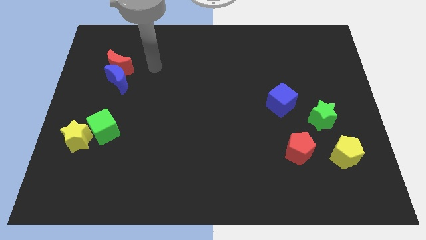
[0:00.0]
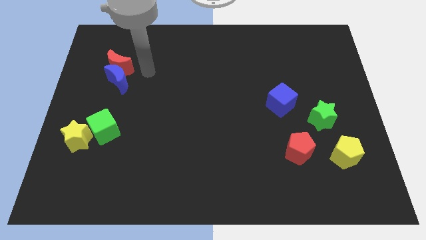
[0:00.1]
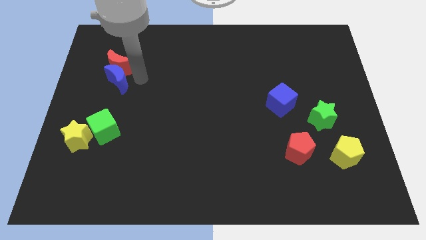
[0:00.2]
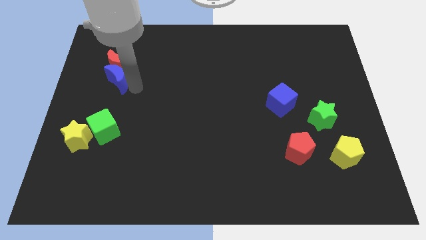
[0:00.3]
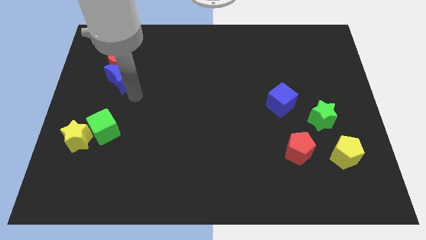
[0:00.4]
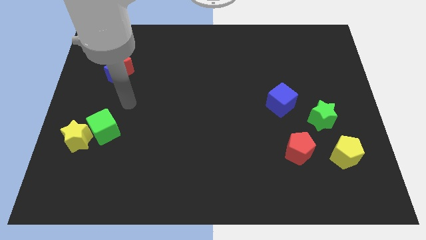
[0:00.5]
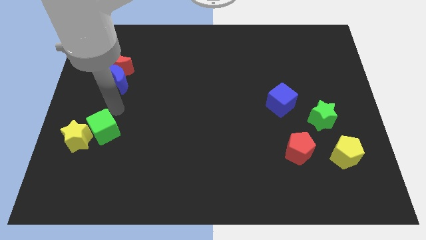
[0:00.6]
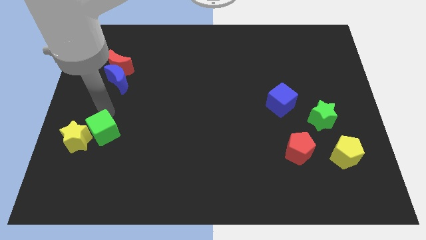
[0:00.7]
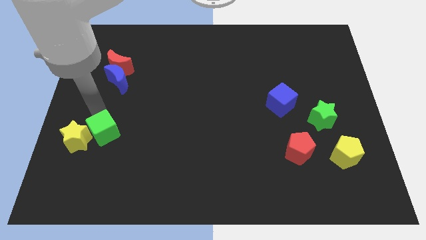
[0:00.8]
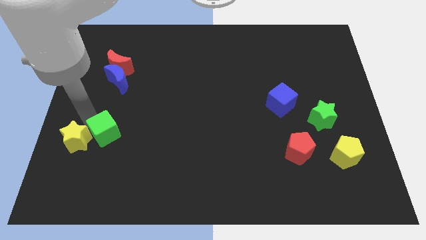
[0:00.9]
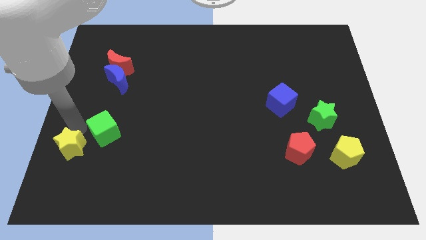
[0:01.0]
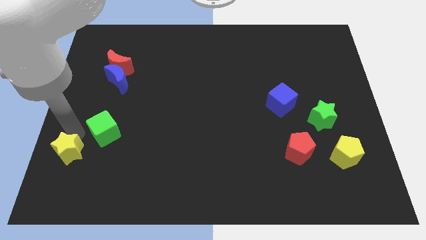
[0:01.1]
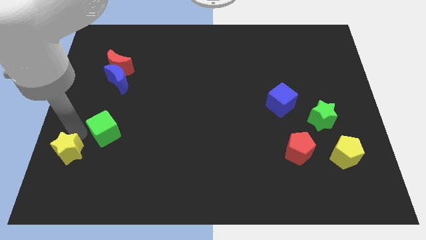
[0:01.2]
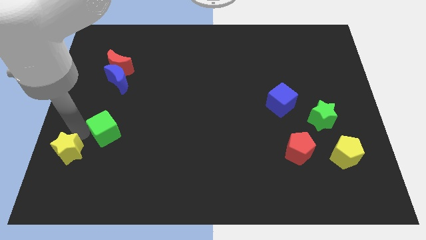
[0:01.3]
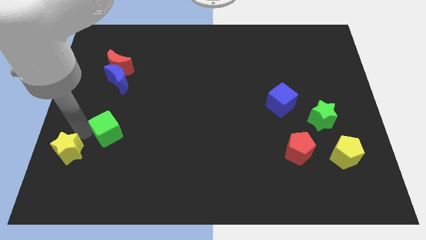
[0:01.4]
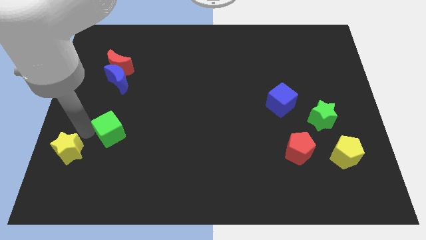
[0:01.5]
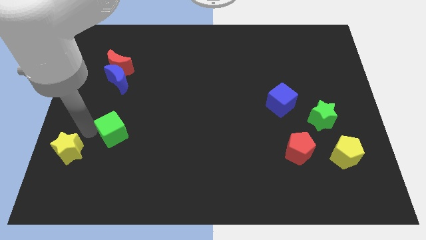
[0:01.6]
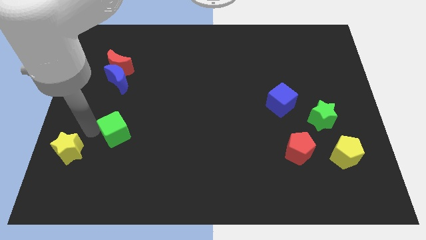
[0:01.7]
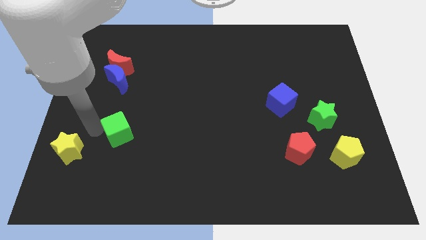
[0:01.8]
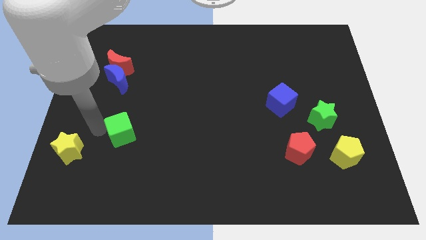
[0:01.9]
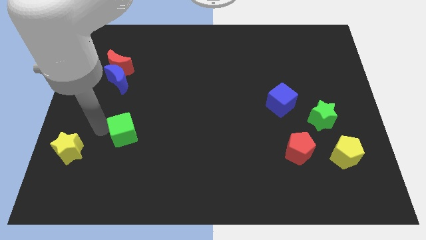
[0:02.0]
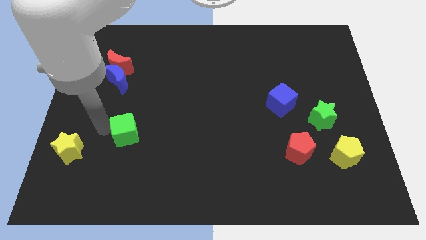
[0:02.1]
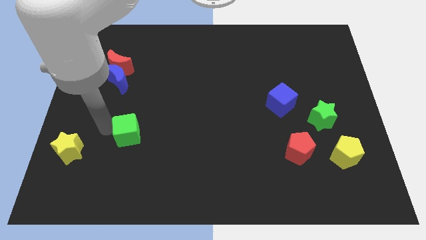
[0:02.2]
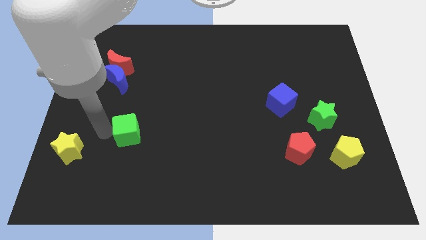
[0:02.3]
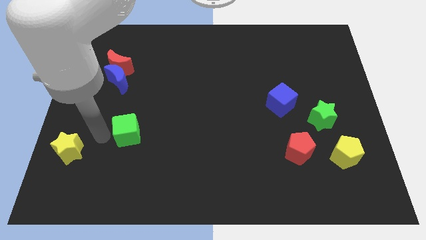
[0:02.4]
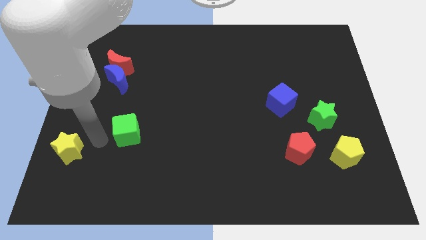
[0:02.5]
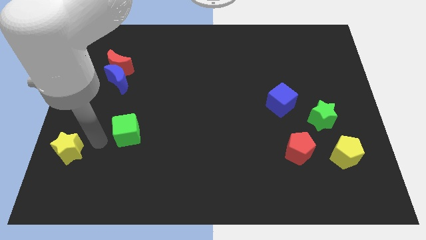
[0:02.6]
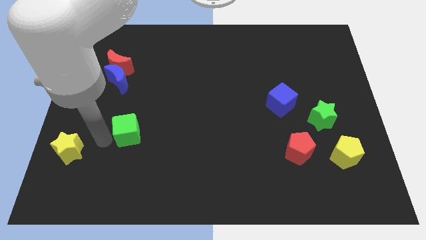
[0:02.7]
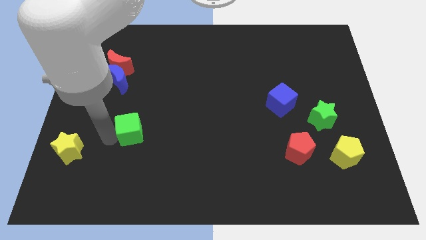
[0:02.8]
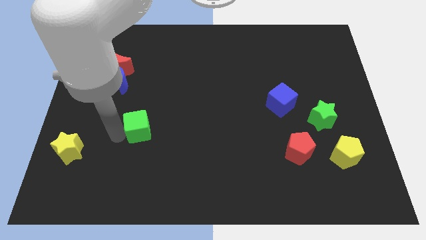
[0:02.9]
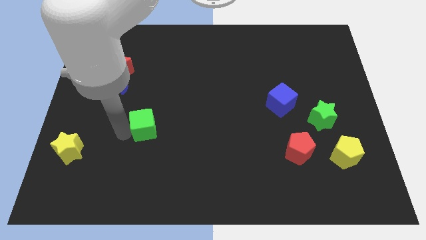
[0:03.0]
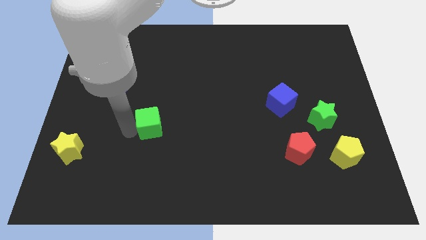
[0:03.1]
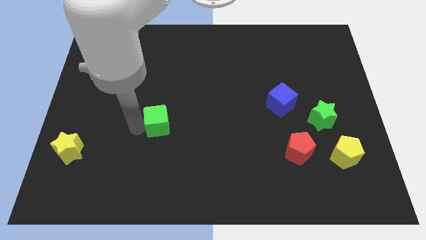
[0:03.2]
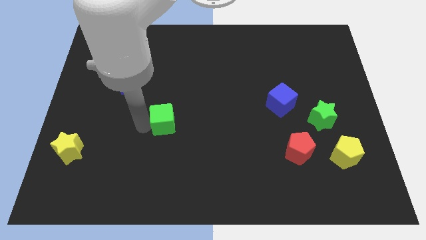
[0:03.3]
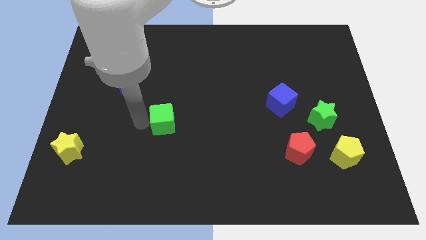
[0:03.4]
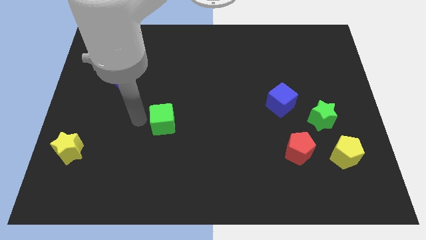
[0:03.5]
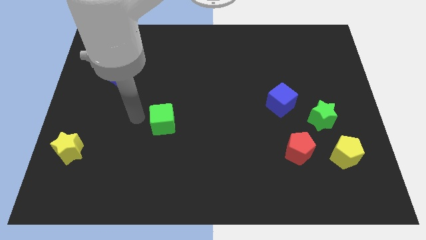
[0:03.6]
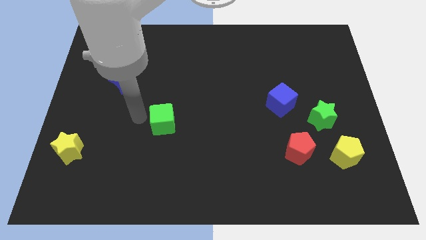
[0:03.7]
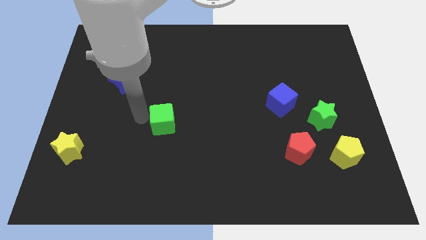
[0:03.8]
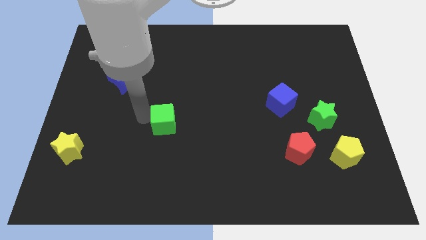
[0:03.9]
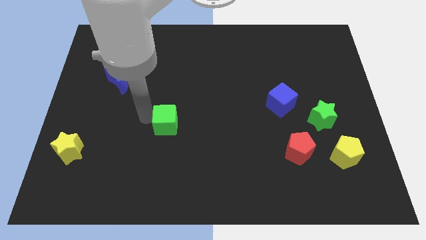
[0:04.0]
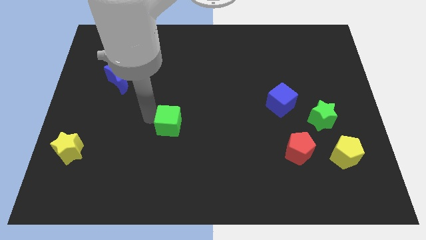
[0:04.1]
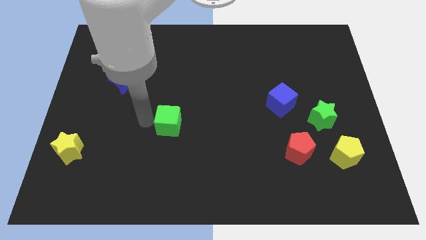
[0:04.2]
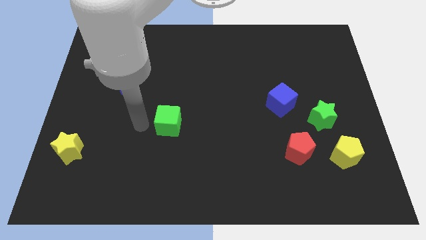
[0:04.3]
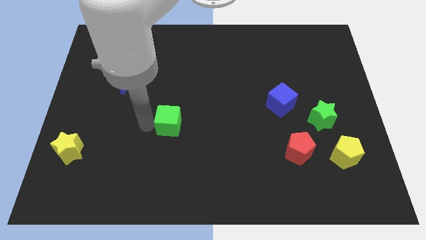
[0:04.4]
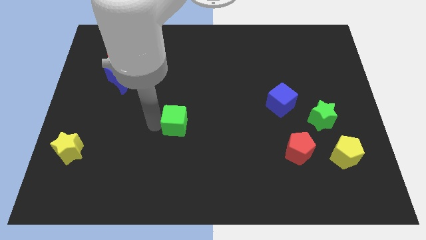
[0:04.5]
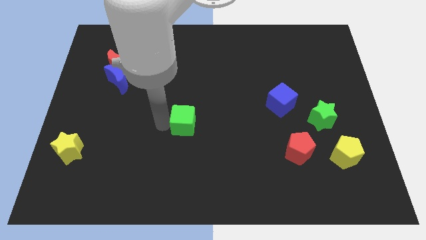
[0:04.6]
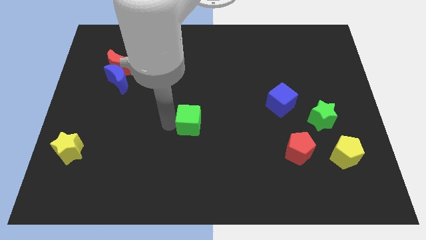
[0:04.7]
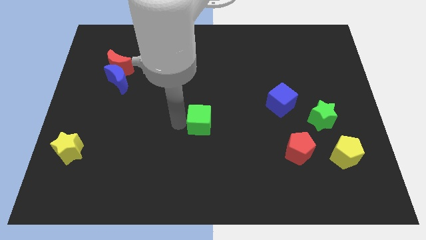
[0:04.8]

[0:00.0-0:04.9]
move the green cube to the right

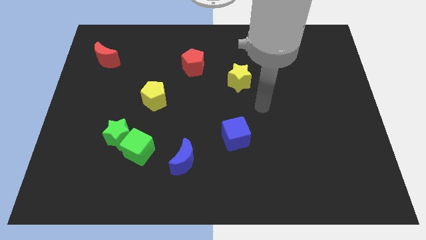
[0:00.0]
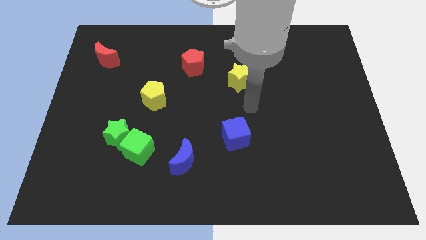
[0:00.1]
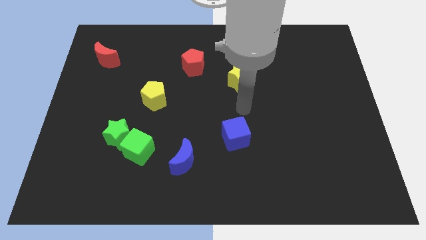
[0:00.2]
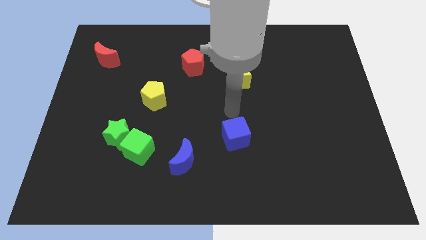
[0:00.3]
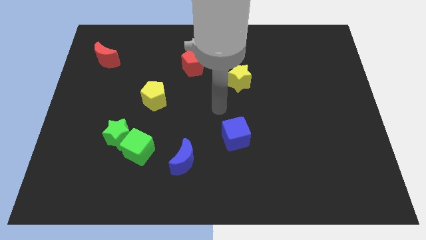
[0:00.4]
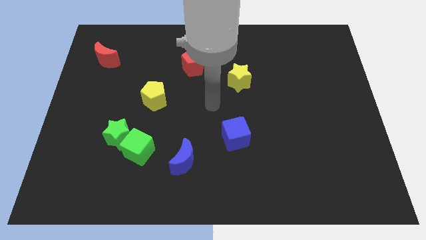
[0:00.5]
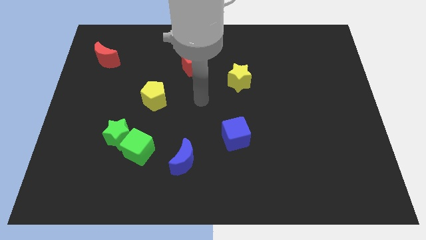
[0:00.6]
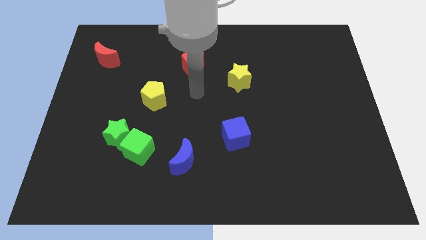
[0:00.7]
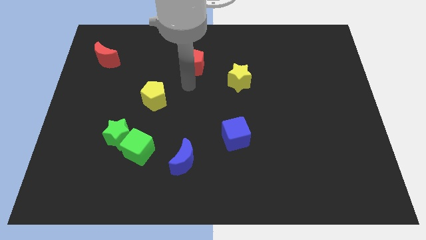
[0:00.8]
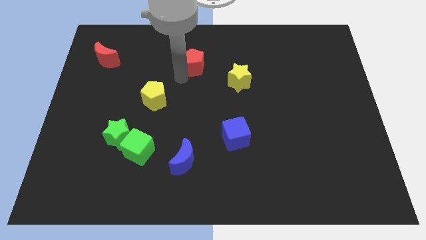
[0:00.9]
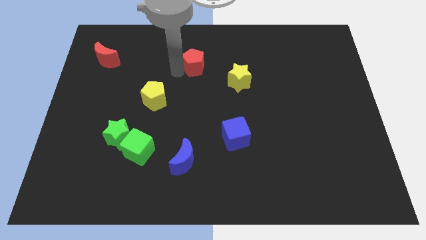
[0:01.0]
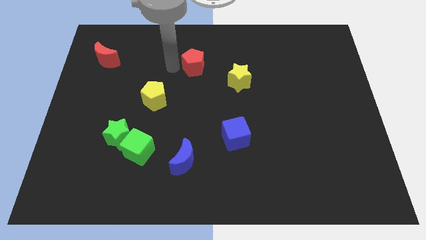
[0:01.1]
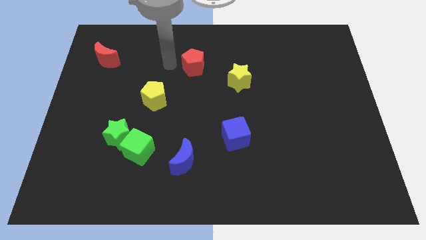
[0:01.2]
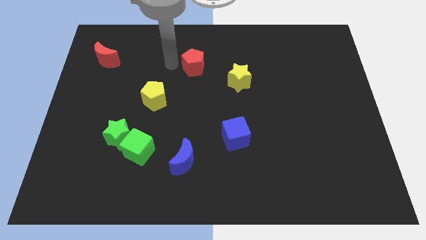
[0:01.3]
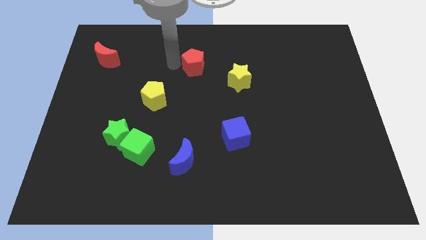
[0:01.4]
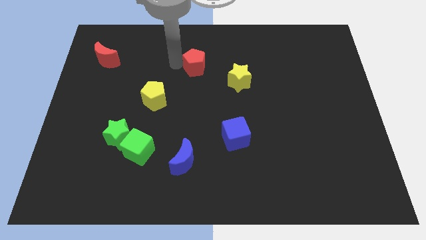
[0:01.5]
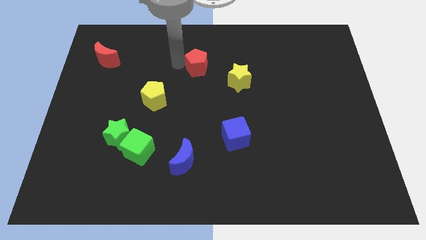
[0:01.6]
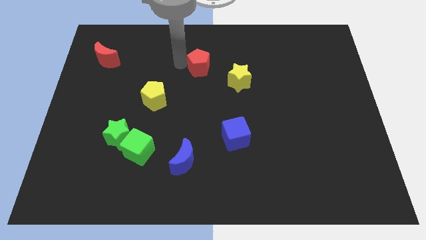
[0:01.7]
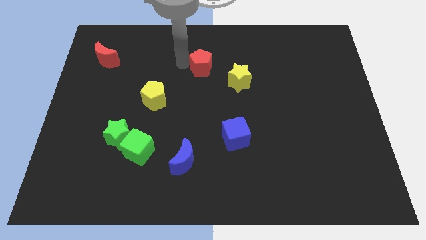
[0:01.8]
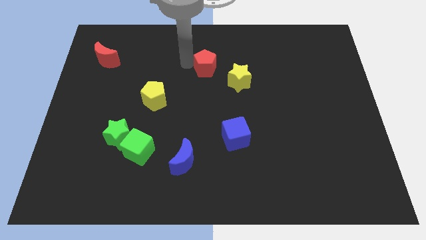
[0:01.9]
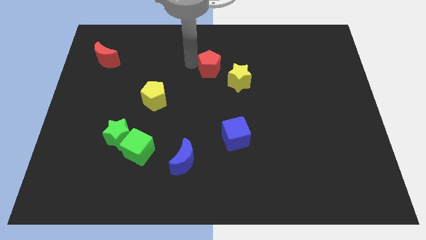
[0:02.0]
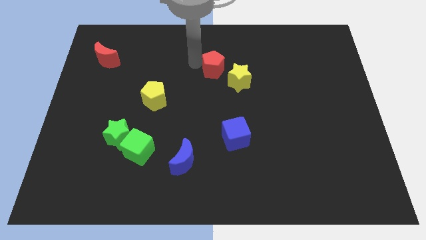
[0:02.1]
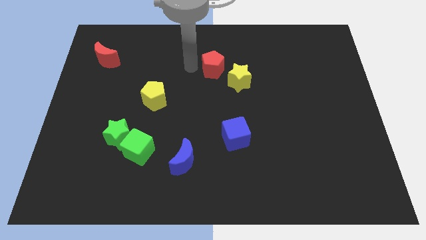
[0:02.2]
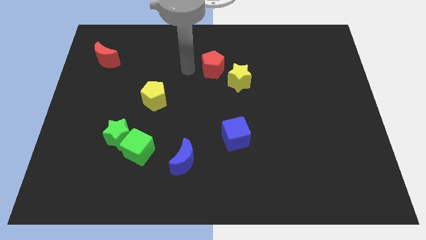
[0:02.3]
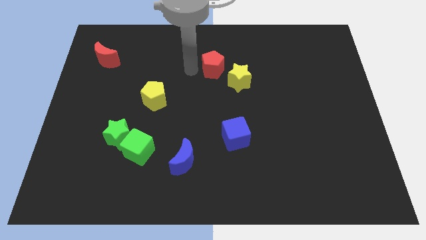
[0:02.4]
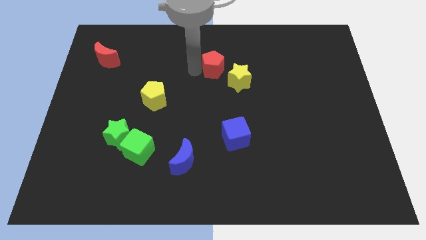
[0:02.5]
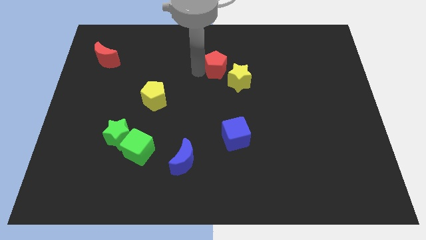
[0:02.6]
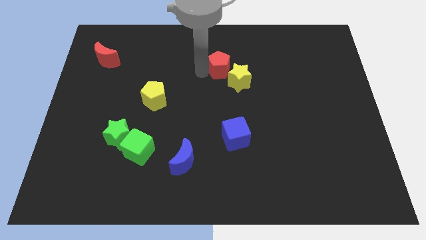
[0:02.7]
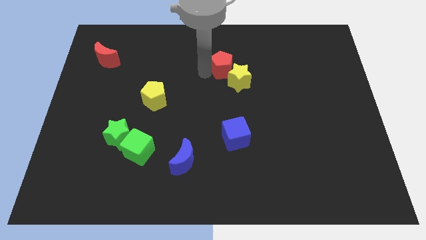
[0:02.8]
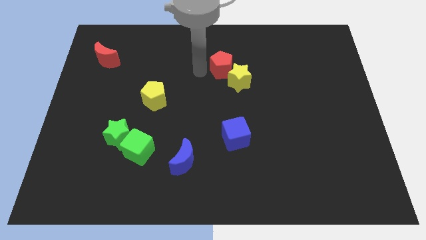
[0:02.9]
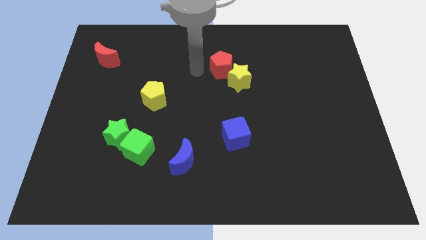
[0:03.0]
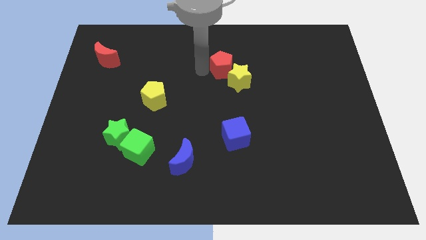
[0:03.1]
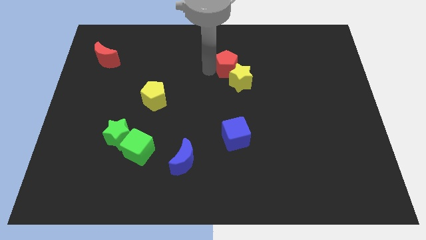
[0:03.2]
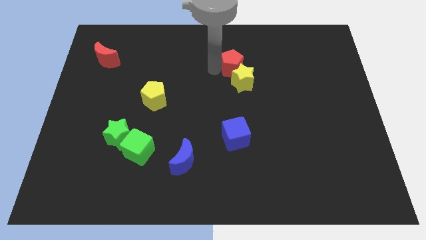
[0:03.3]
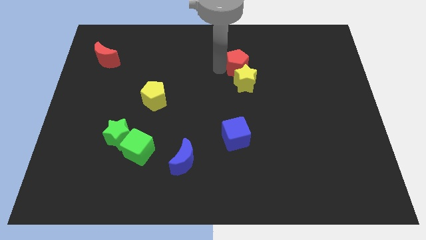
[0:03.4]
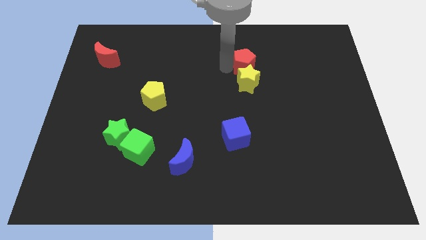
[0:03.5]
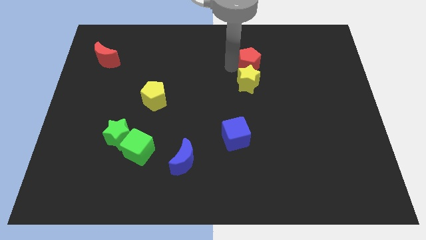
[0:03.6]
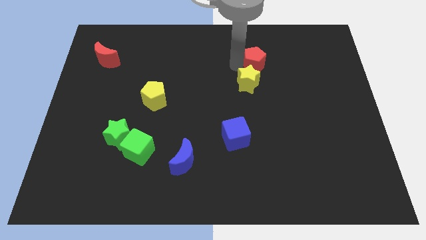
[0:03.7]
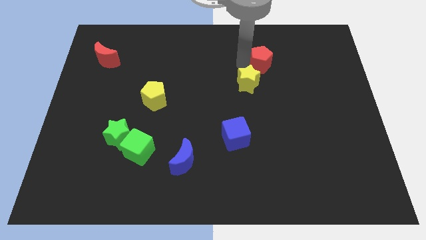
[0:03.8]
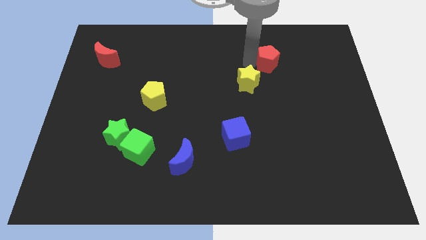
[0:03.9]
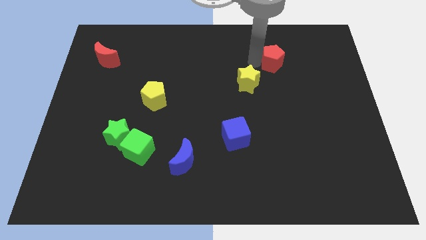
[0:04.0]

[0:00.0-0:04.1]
slide the red pentagon right
